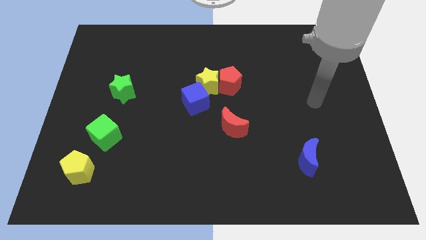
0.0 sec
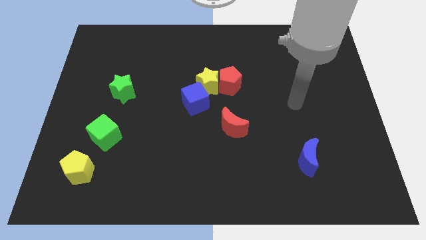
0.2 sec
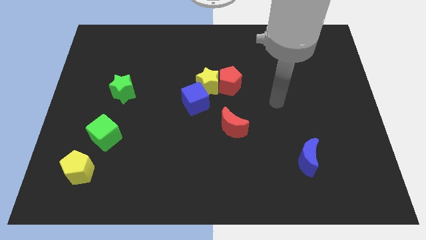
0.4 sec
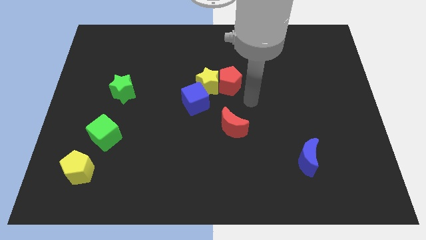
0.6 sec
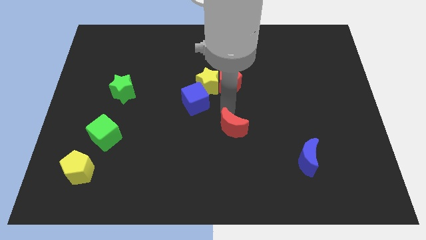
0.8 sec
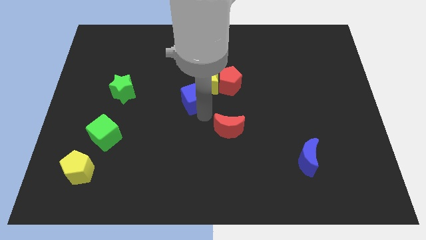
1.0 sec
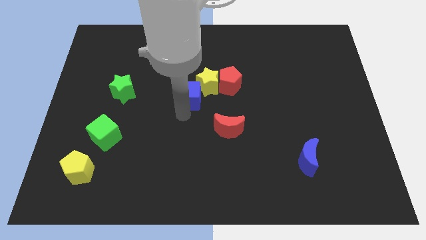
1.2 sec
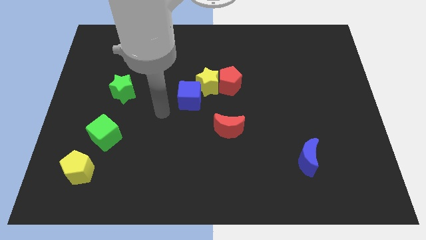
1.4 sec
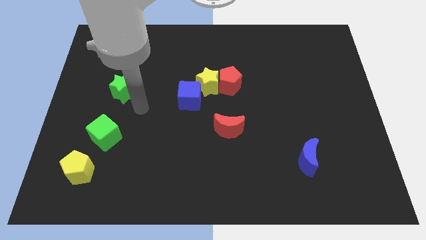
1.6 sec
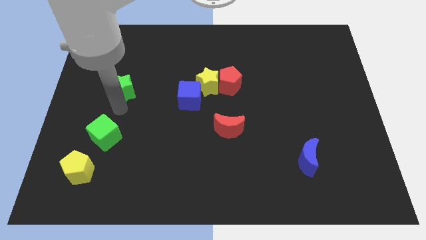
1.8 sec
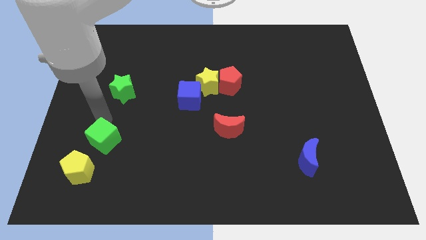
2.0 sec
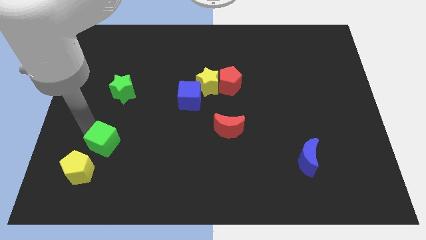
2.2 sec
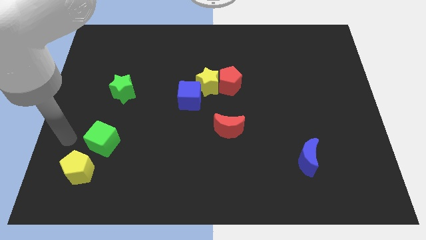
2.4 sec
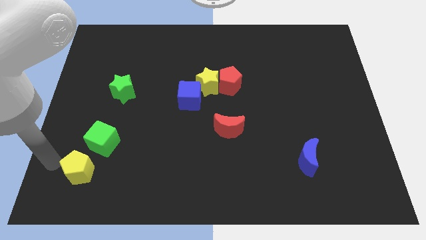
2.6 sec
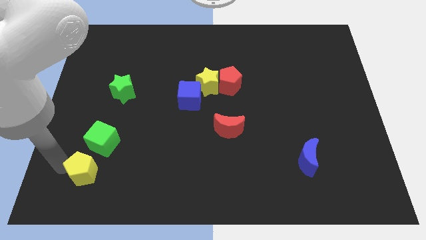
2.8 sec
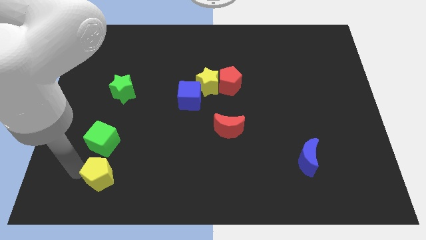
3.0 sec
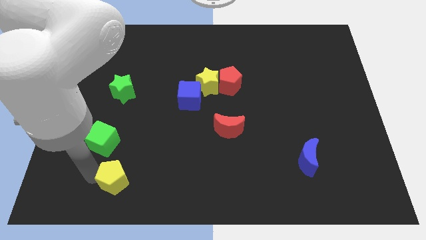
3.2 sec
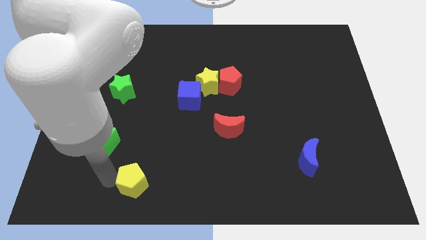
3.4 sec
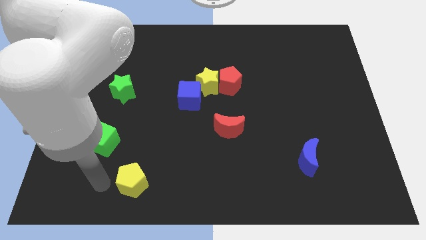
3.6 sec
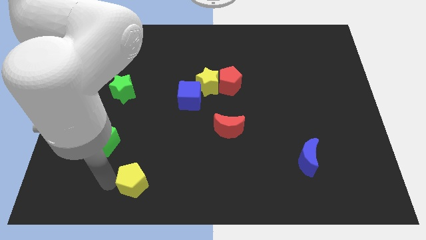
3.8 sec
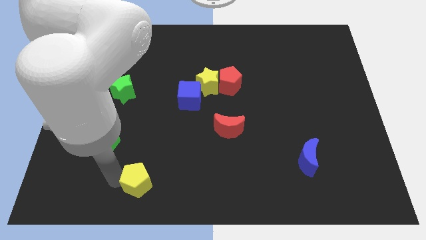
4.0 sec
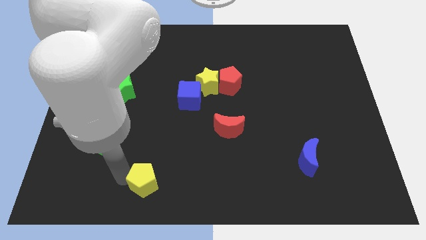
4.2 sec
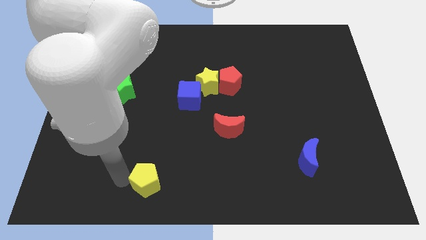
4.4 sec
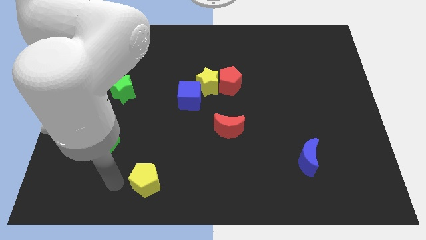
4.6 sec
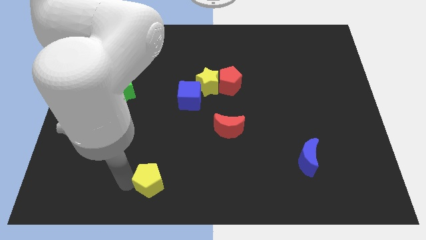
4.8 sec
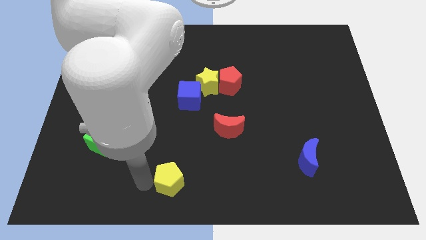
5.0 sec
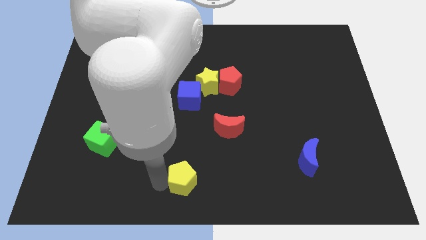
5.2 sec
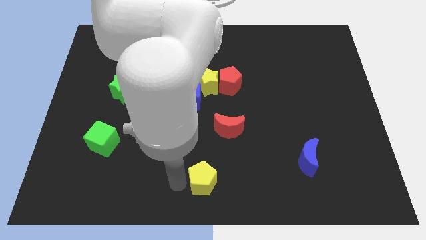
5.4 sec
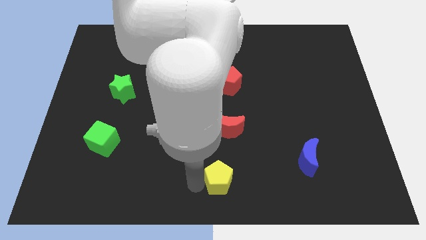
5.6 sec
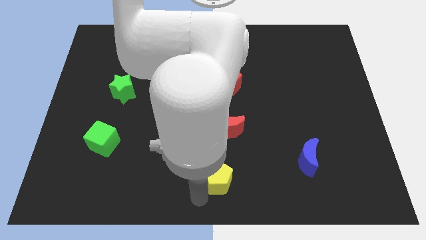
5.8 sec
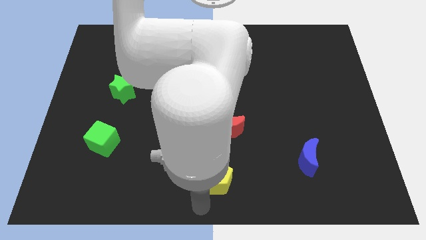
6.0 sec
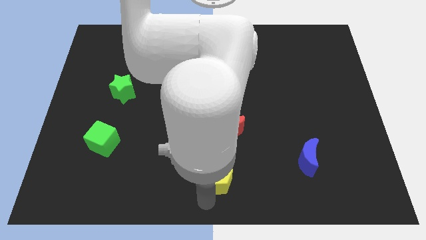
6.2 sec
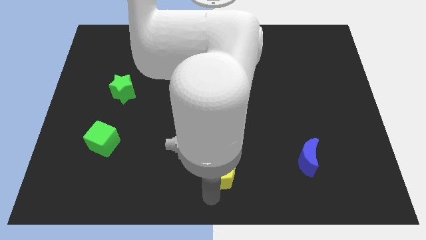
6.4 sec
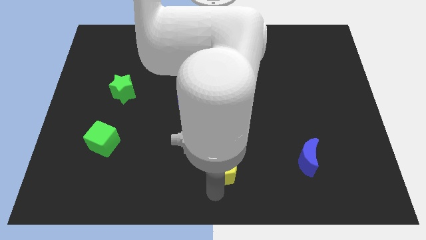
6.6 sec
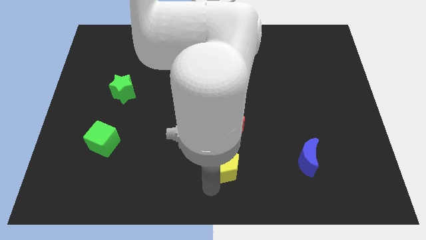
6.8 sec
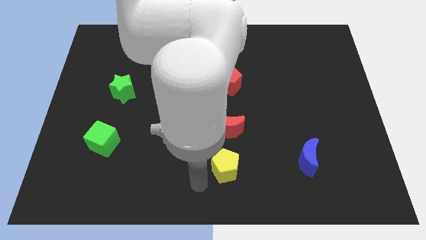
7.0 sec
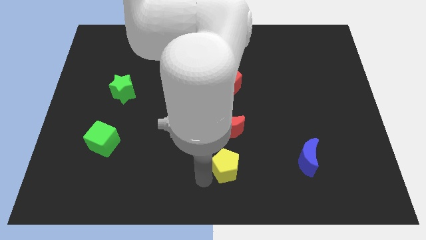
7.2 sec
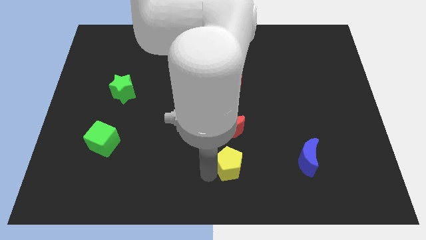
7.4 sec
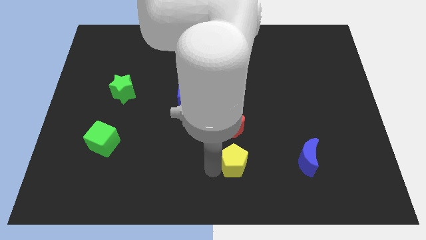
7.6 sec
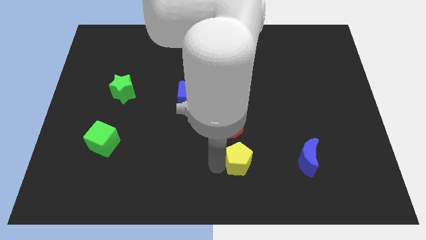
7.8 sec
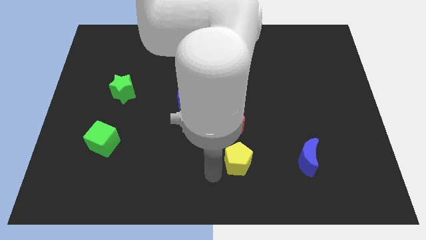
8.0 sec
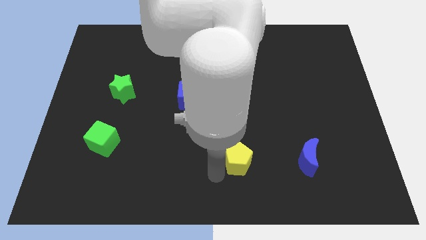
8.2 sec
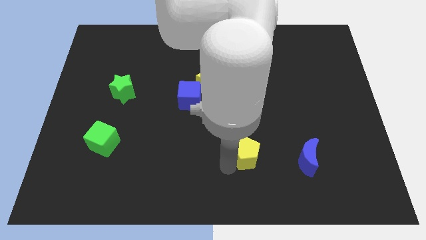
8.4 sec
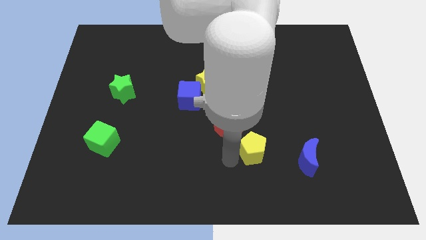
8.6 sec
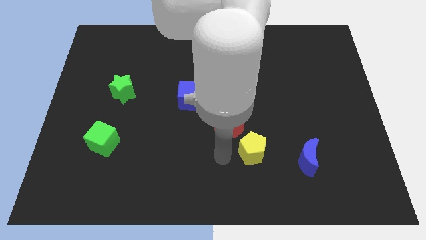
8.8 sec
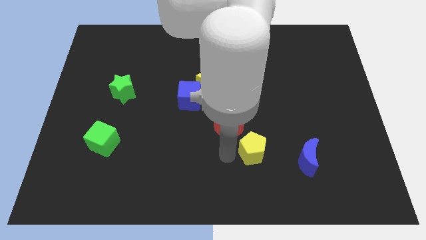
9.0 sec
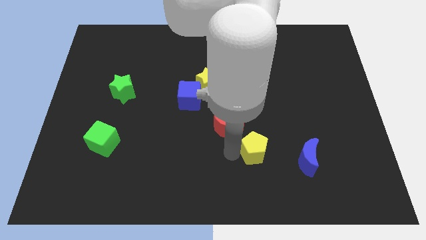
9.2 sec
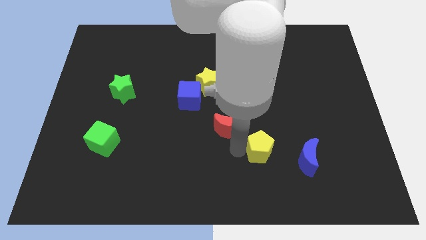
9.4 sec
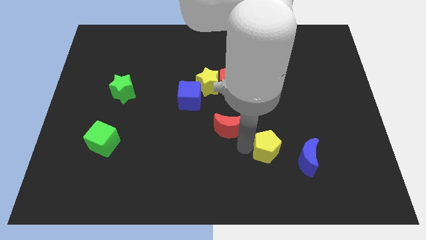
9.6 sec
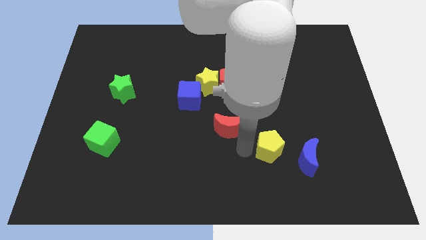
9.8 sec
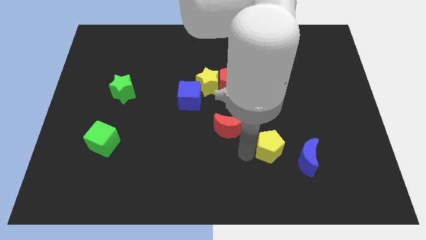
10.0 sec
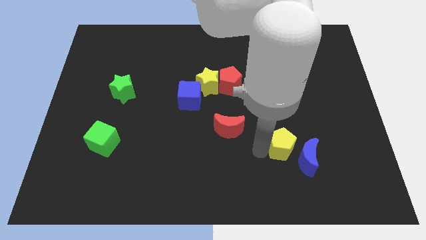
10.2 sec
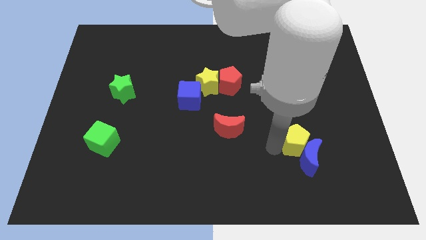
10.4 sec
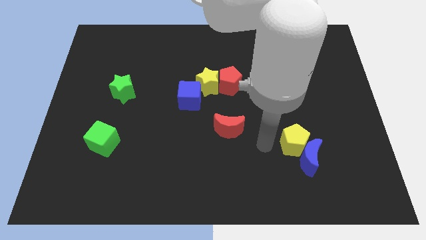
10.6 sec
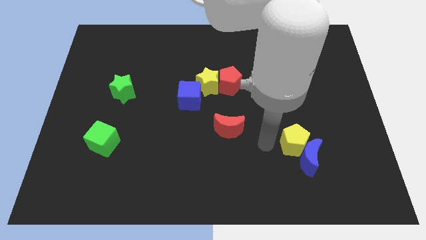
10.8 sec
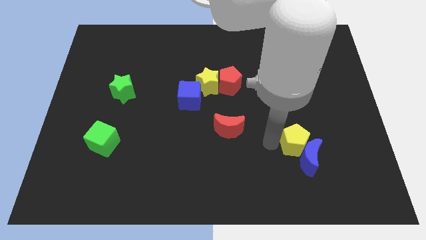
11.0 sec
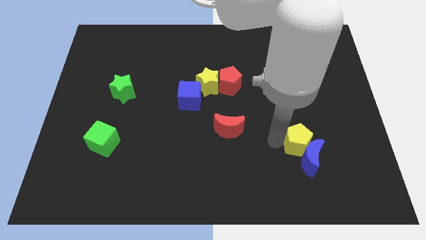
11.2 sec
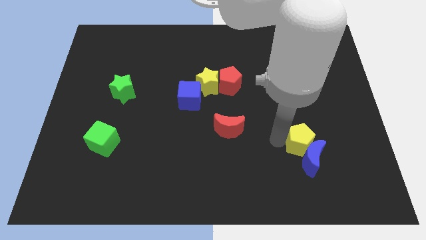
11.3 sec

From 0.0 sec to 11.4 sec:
move the yellow pentagon diagonally up and to the right of the blue moon

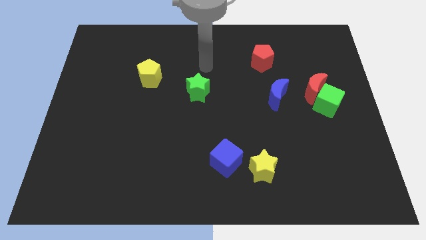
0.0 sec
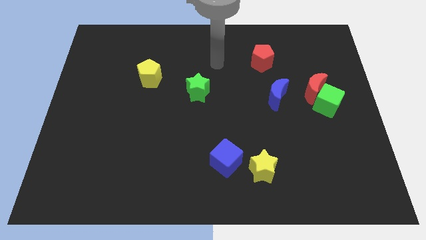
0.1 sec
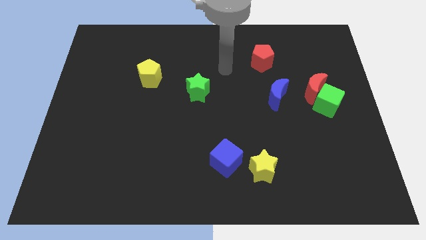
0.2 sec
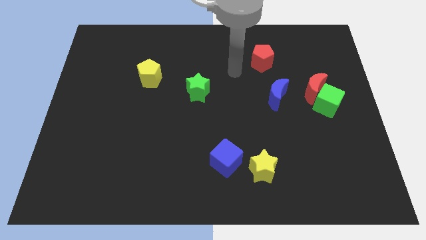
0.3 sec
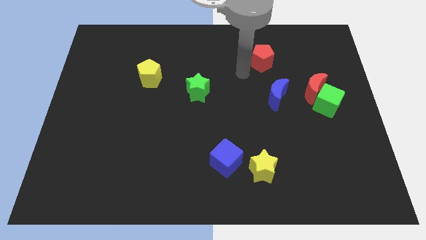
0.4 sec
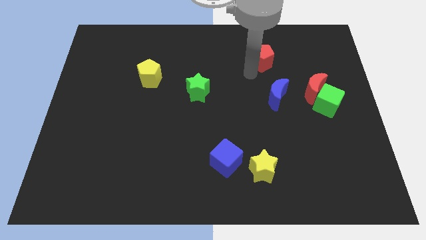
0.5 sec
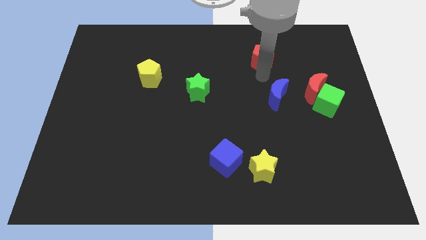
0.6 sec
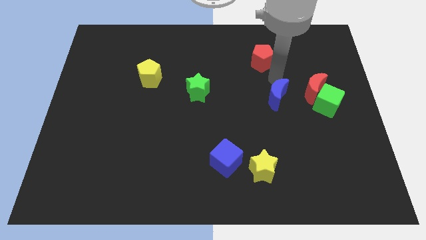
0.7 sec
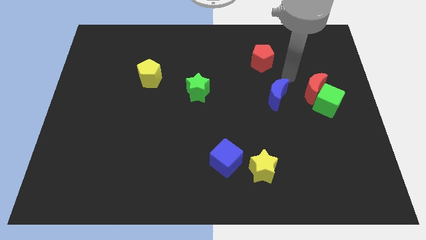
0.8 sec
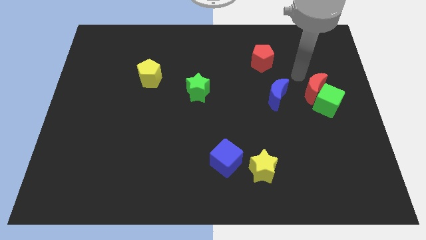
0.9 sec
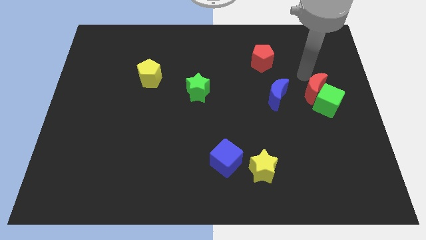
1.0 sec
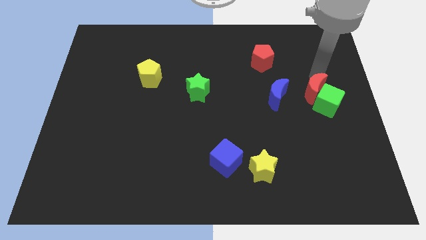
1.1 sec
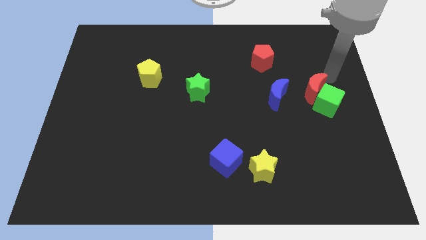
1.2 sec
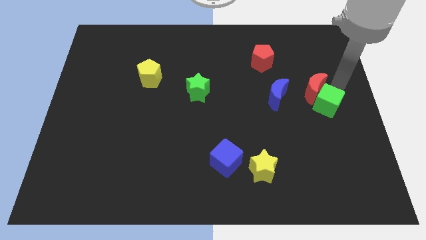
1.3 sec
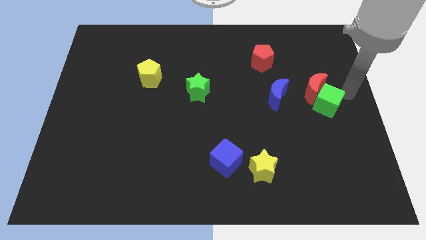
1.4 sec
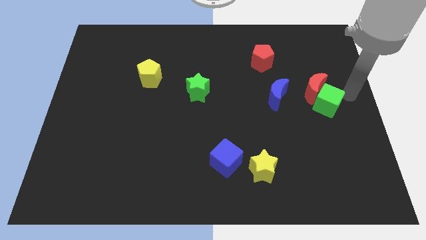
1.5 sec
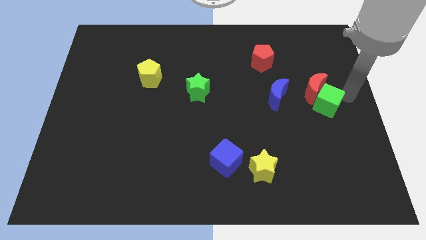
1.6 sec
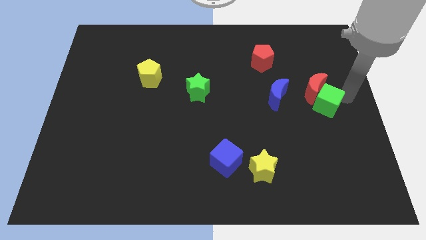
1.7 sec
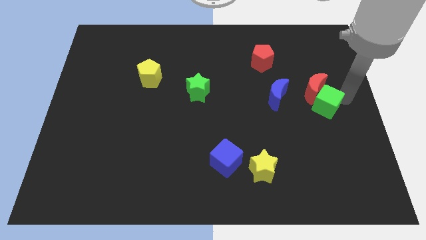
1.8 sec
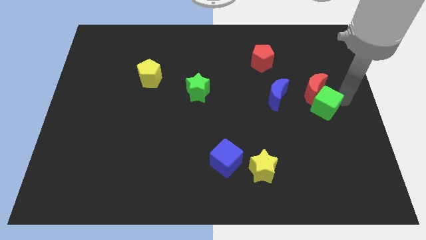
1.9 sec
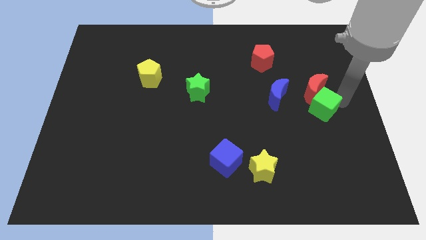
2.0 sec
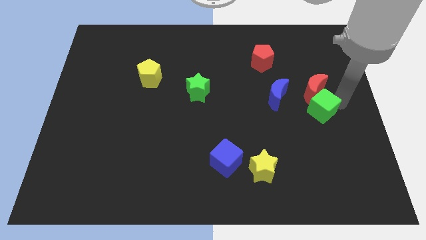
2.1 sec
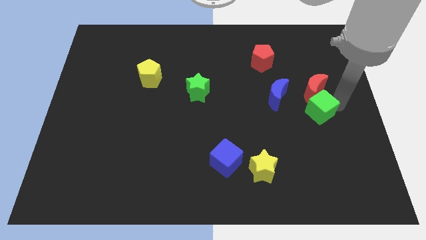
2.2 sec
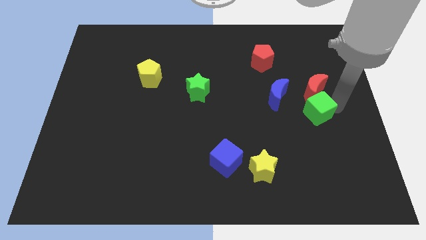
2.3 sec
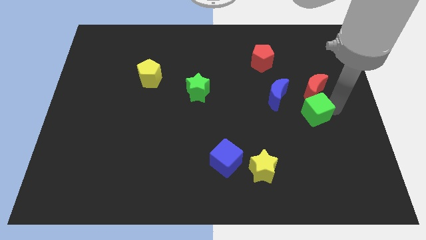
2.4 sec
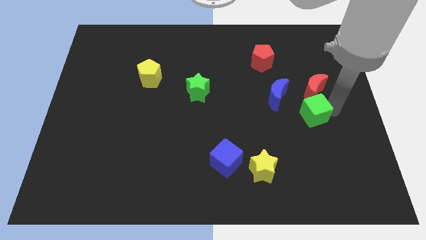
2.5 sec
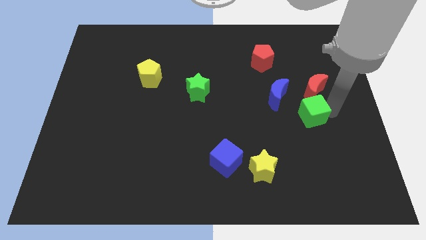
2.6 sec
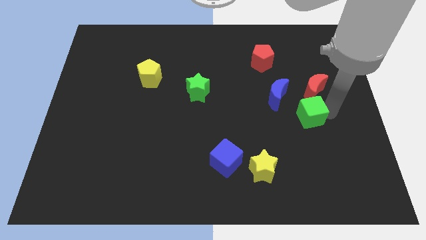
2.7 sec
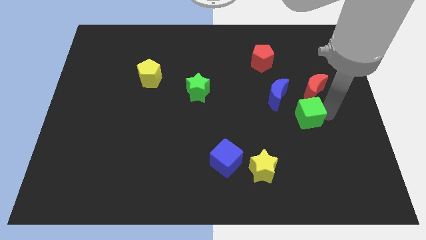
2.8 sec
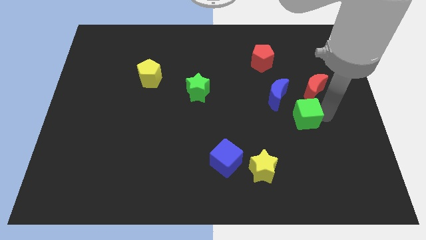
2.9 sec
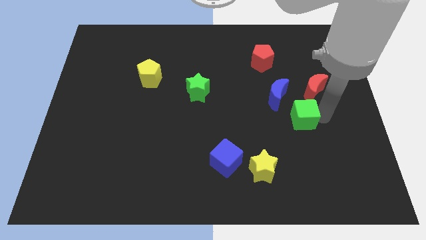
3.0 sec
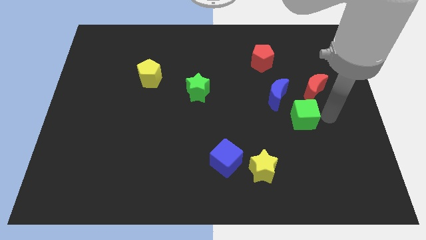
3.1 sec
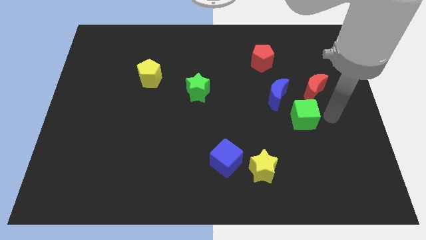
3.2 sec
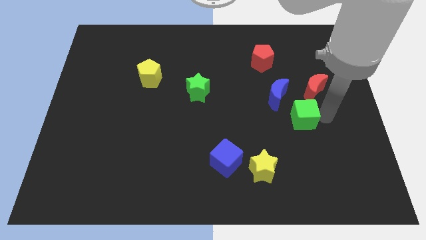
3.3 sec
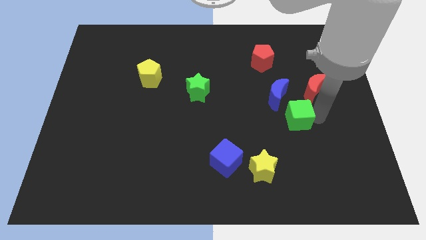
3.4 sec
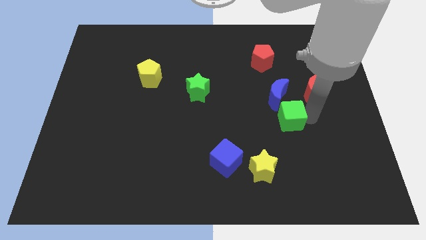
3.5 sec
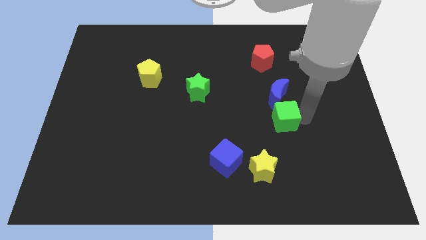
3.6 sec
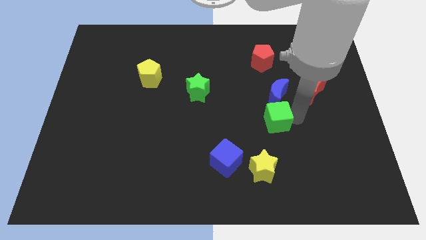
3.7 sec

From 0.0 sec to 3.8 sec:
push the green cube above the yellow star
